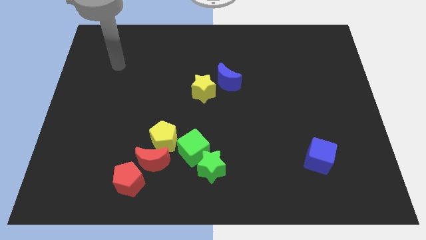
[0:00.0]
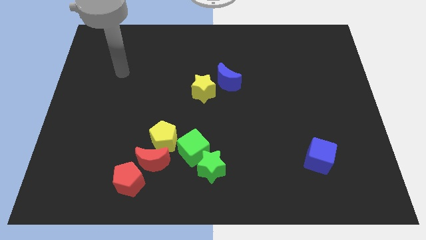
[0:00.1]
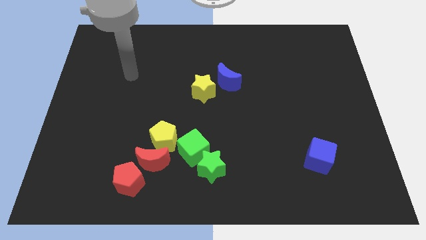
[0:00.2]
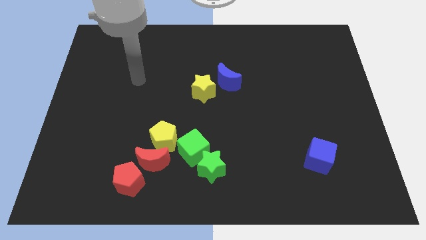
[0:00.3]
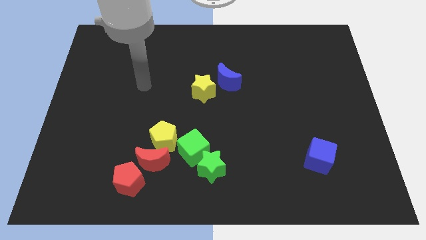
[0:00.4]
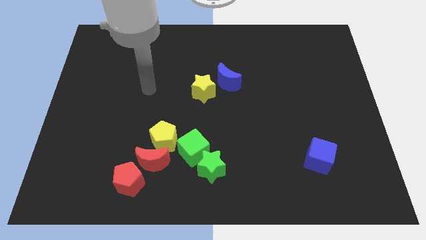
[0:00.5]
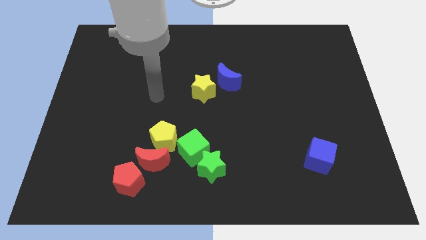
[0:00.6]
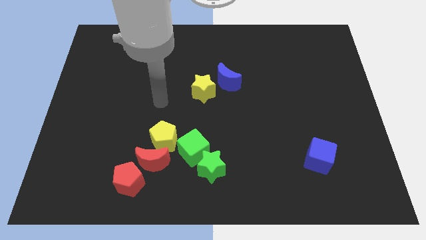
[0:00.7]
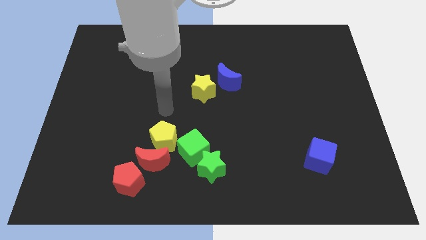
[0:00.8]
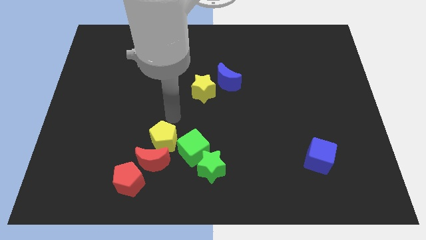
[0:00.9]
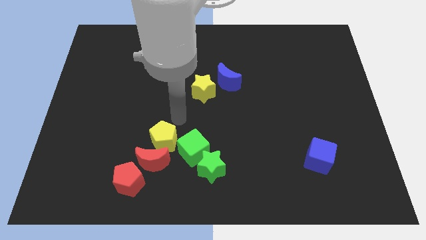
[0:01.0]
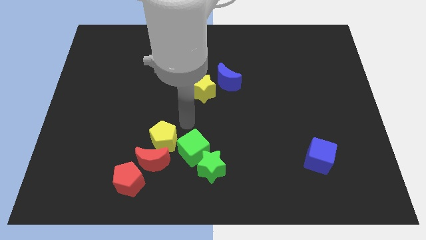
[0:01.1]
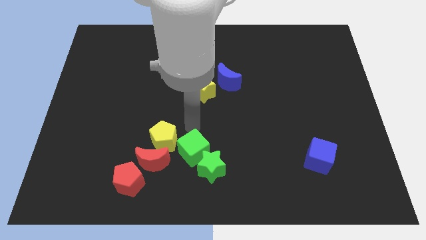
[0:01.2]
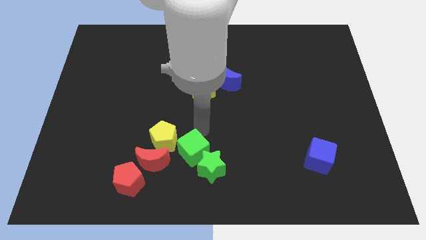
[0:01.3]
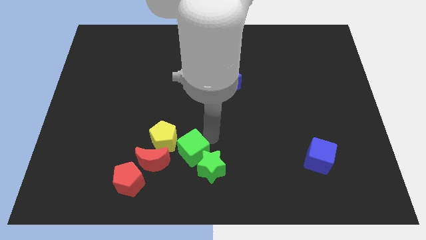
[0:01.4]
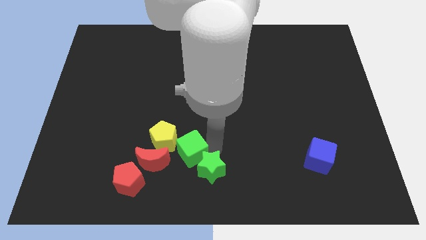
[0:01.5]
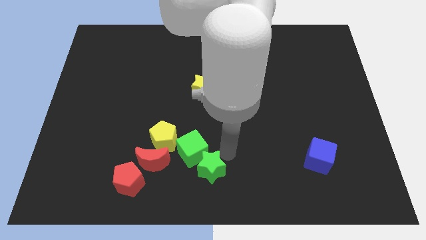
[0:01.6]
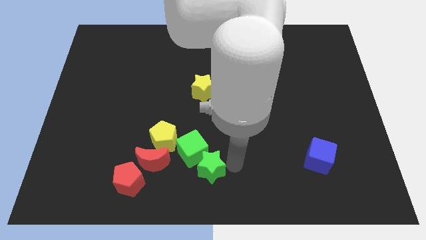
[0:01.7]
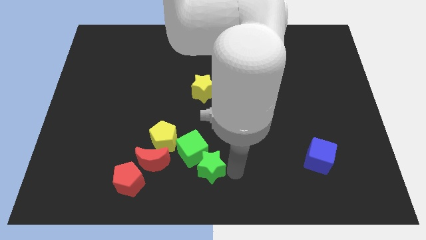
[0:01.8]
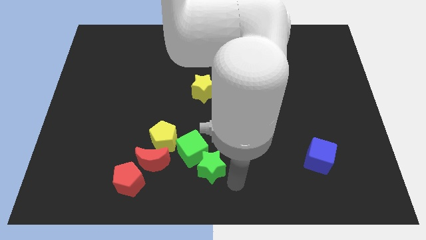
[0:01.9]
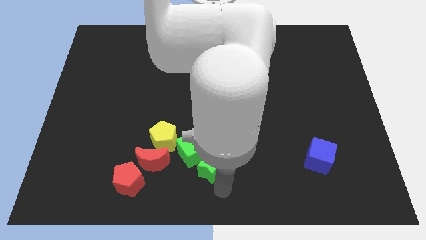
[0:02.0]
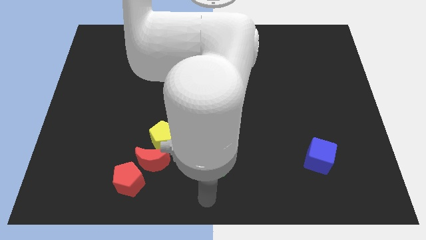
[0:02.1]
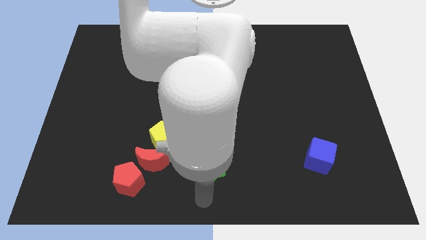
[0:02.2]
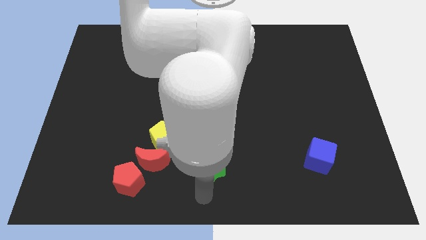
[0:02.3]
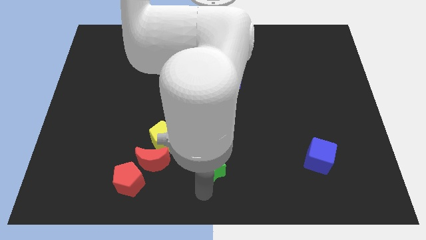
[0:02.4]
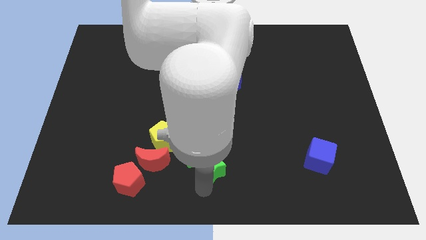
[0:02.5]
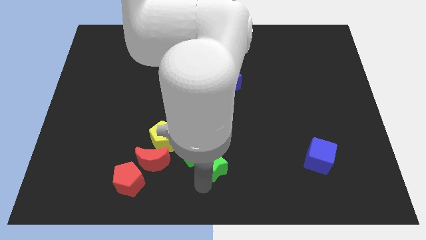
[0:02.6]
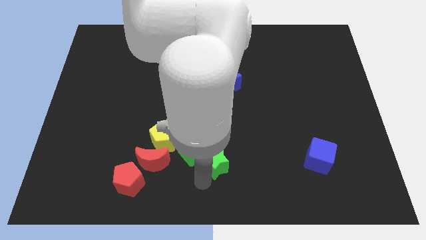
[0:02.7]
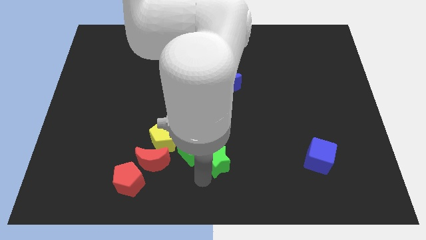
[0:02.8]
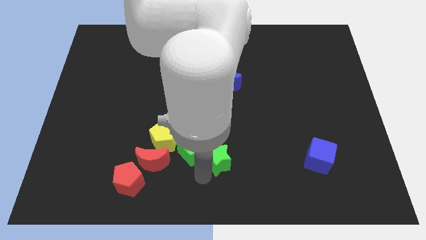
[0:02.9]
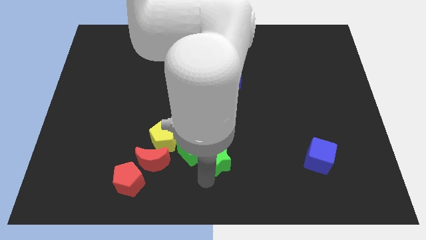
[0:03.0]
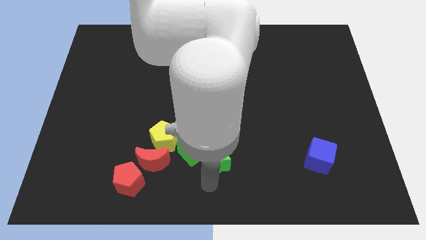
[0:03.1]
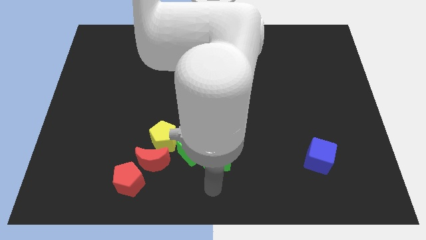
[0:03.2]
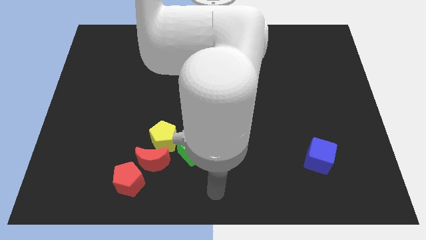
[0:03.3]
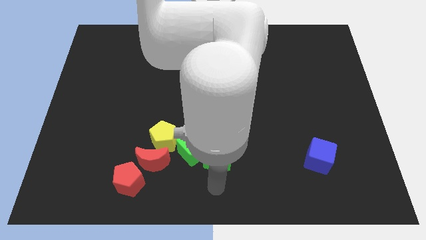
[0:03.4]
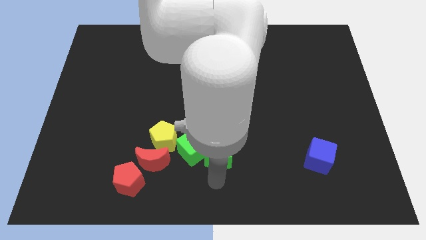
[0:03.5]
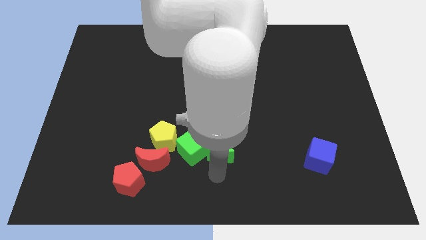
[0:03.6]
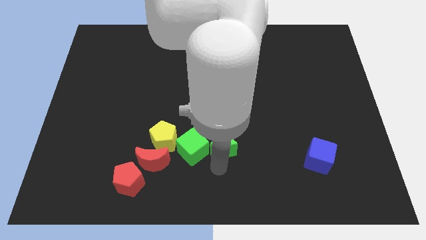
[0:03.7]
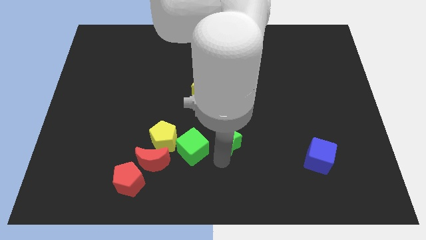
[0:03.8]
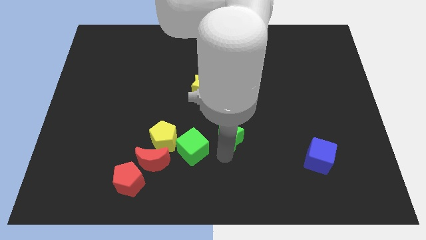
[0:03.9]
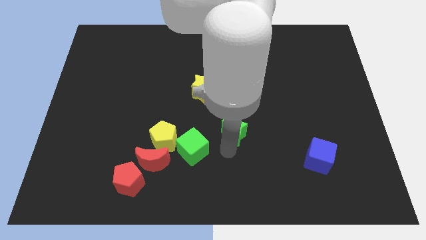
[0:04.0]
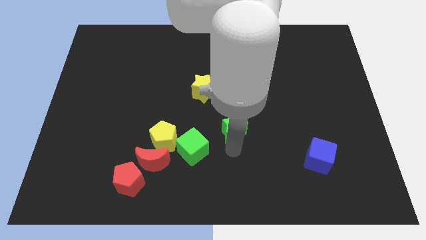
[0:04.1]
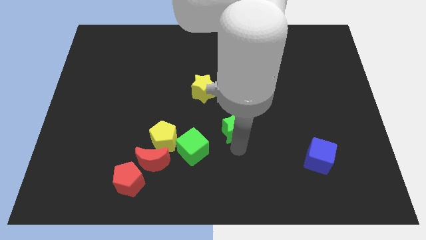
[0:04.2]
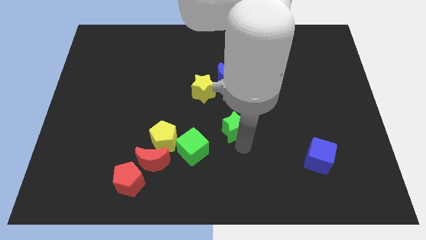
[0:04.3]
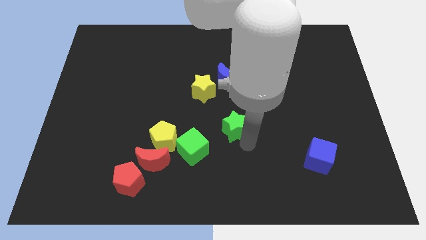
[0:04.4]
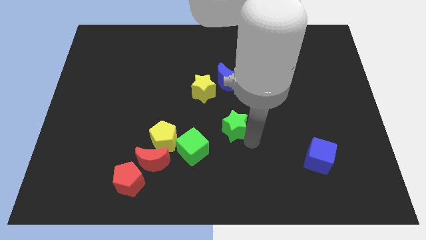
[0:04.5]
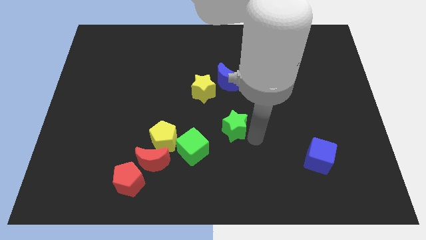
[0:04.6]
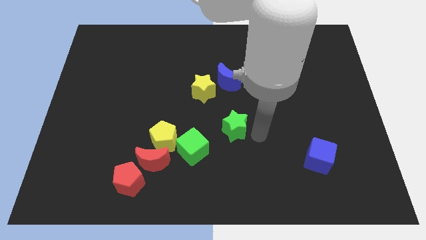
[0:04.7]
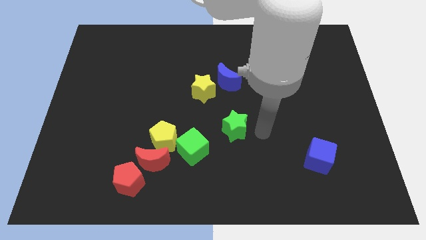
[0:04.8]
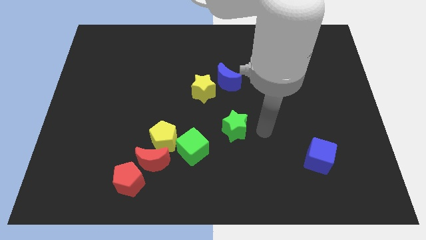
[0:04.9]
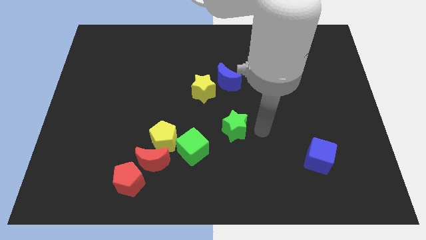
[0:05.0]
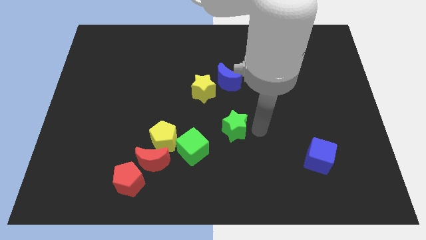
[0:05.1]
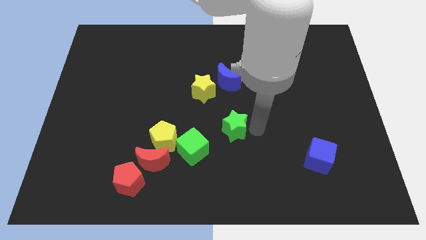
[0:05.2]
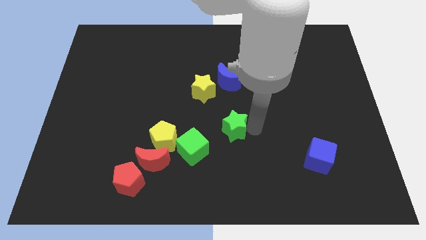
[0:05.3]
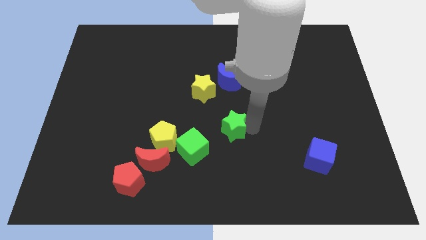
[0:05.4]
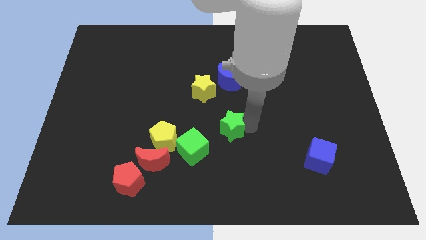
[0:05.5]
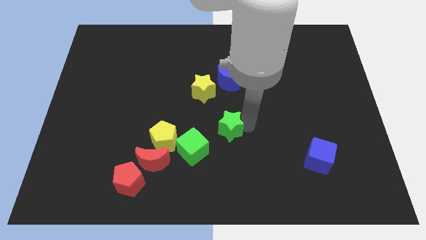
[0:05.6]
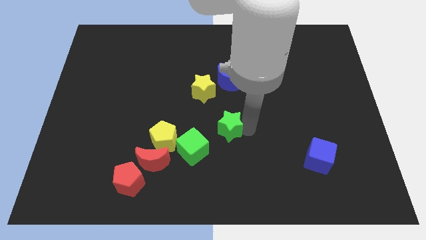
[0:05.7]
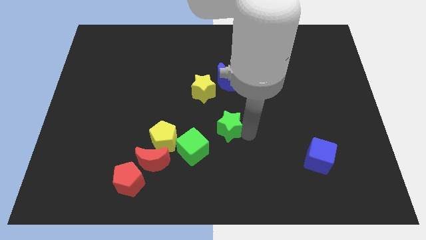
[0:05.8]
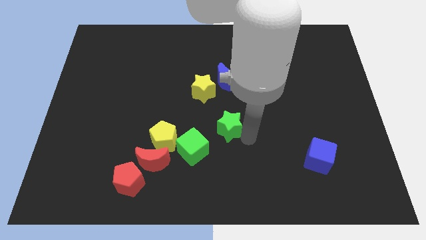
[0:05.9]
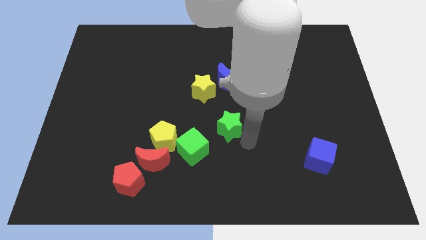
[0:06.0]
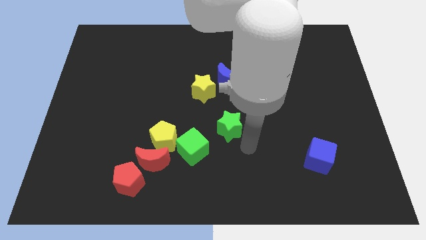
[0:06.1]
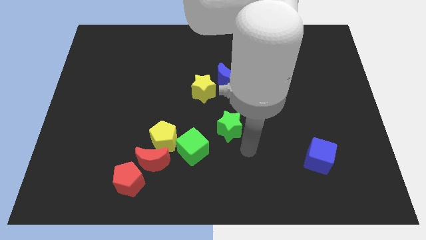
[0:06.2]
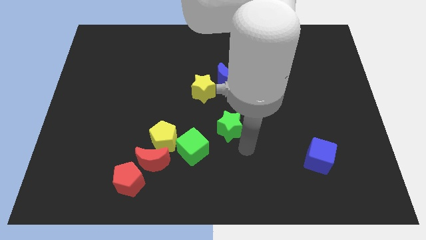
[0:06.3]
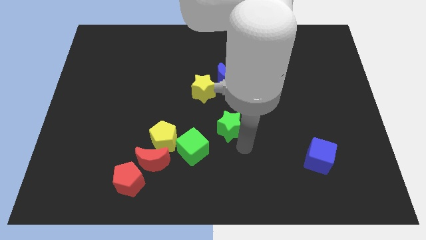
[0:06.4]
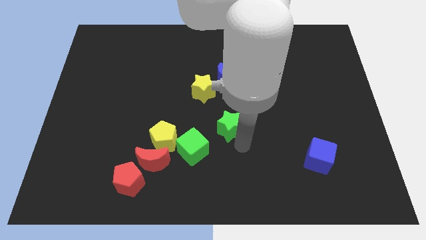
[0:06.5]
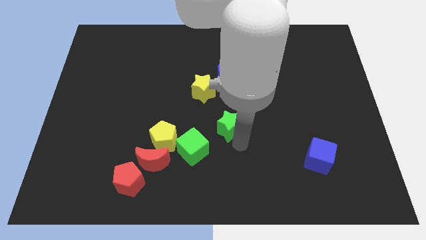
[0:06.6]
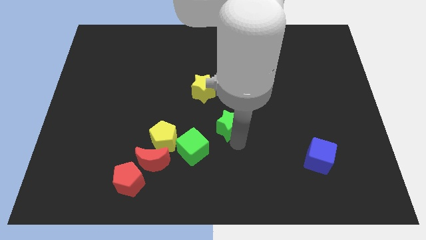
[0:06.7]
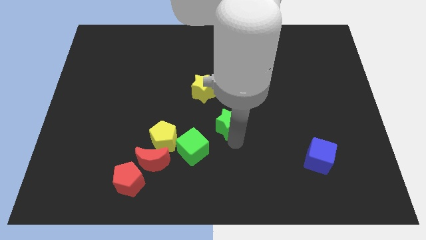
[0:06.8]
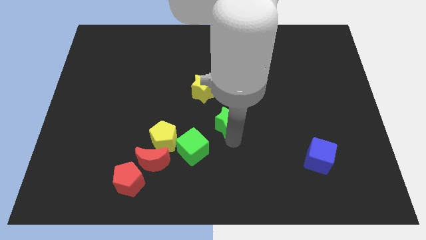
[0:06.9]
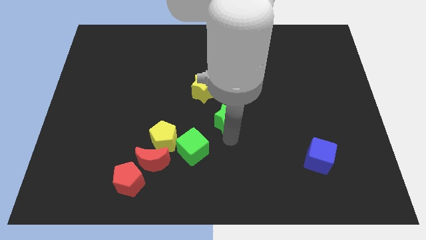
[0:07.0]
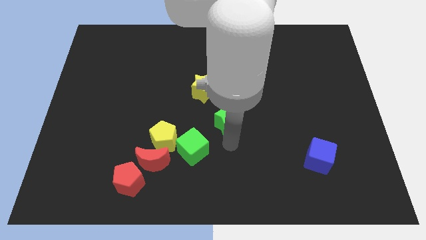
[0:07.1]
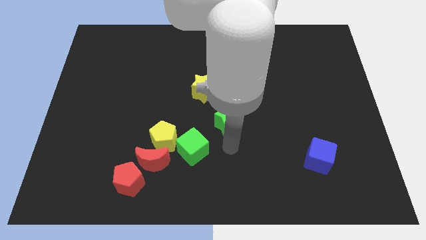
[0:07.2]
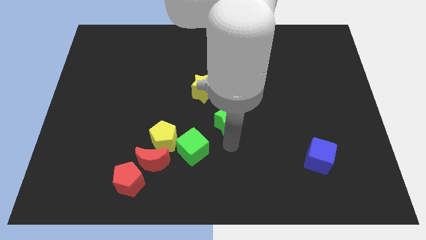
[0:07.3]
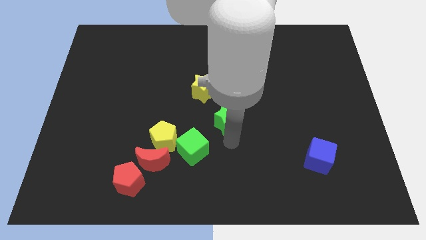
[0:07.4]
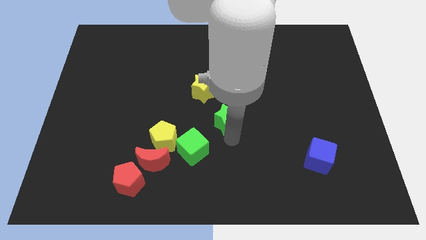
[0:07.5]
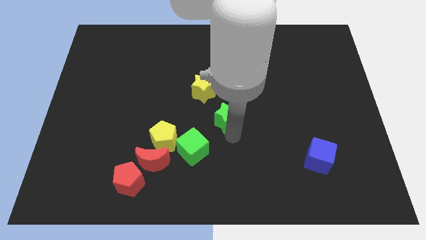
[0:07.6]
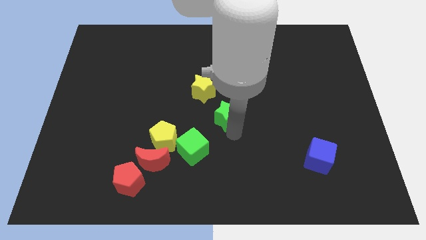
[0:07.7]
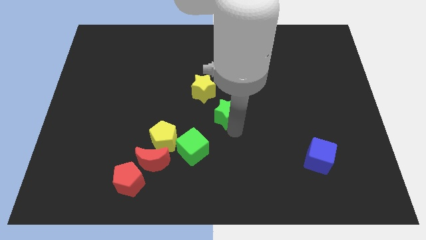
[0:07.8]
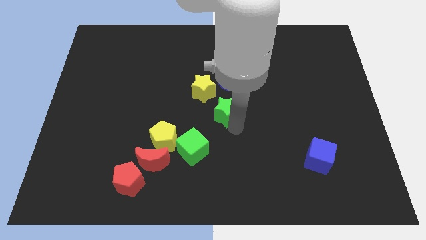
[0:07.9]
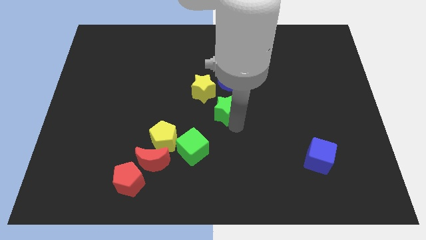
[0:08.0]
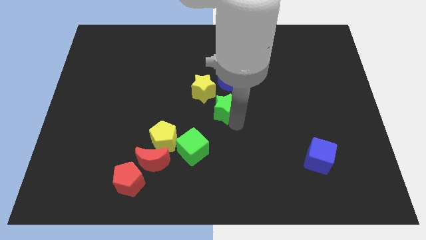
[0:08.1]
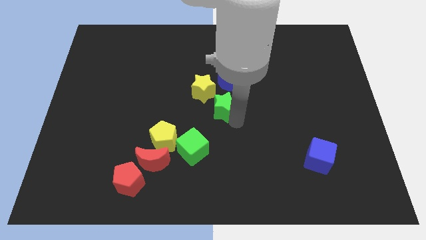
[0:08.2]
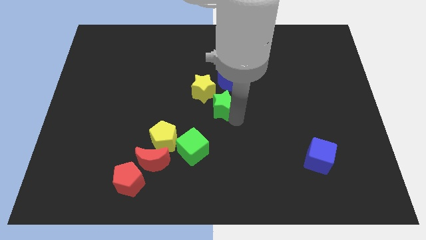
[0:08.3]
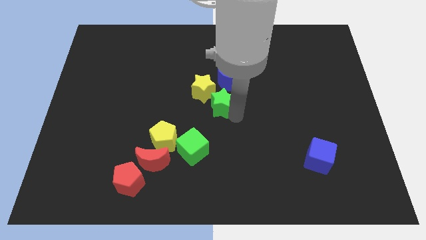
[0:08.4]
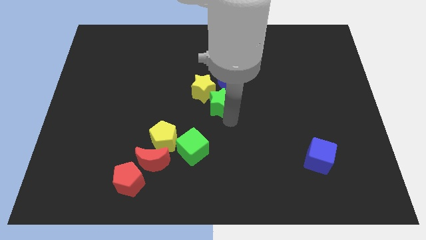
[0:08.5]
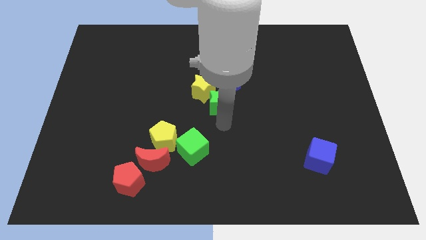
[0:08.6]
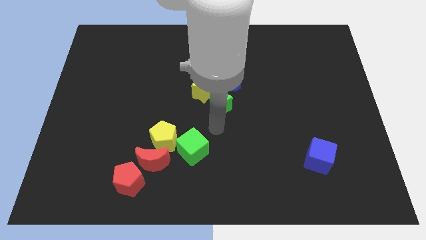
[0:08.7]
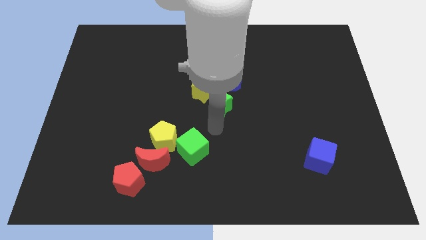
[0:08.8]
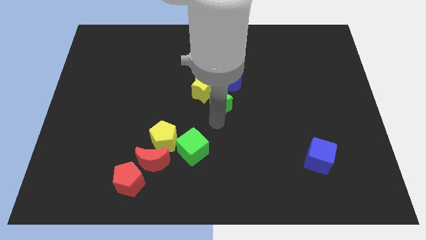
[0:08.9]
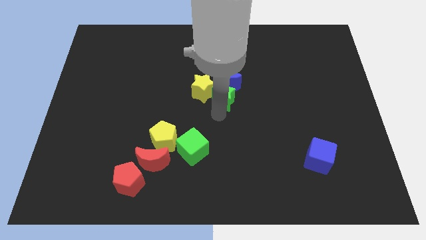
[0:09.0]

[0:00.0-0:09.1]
put the green star close to the blue moon
